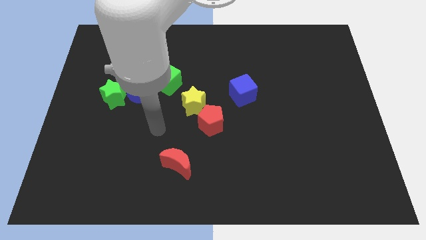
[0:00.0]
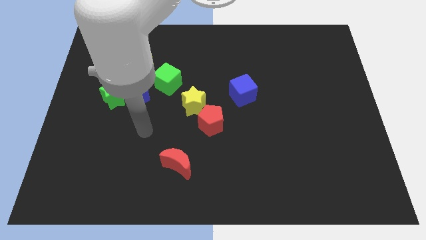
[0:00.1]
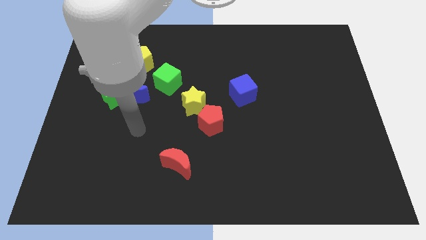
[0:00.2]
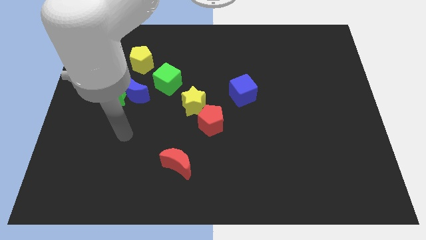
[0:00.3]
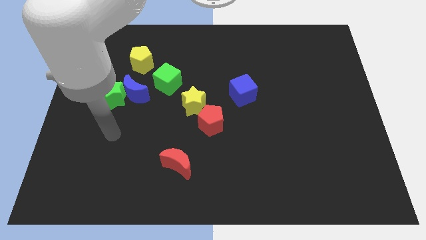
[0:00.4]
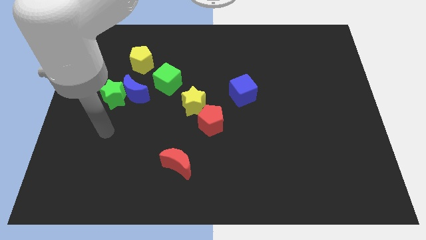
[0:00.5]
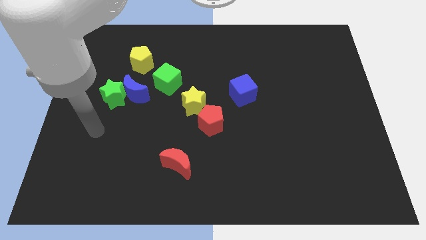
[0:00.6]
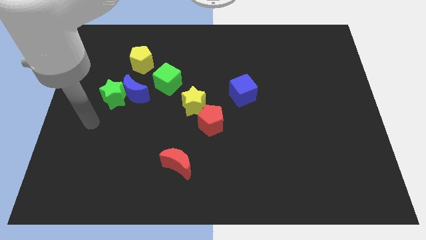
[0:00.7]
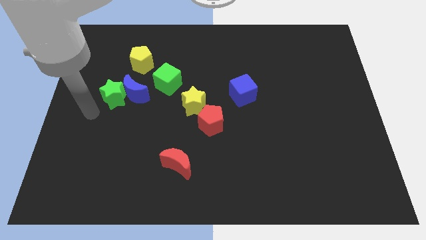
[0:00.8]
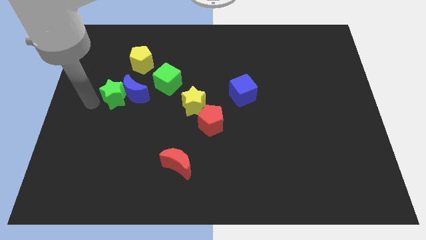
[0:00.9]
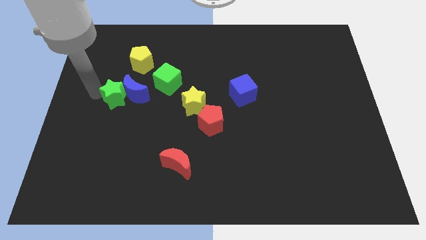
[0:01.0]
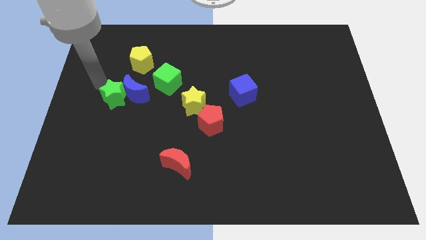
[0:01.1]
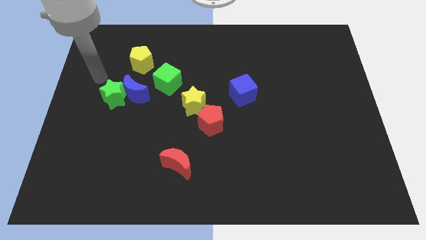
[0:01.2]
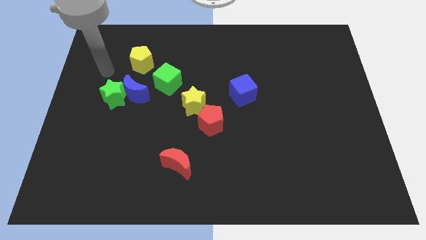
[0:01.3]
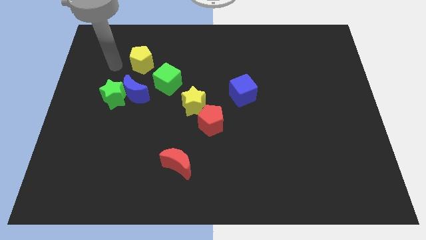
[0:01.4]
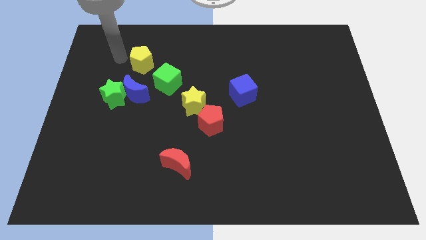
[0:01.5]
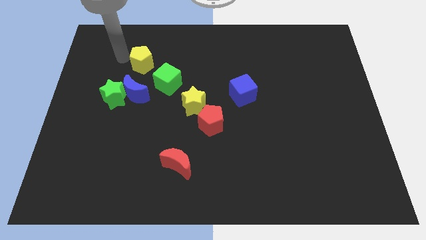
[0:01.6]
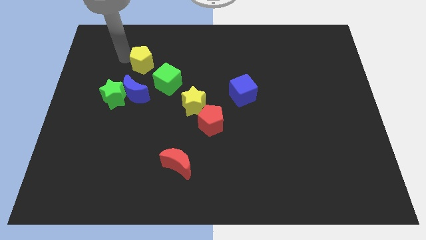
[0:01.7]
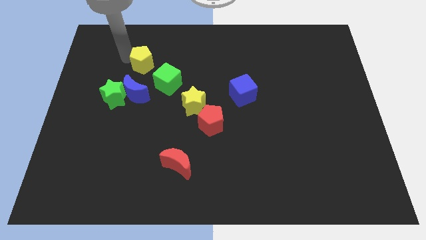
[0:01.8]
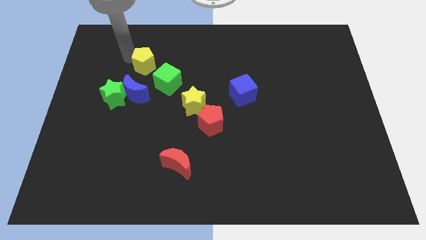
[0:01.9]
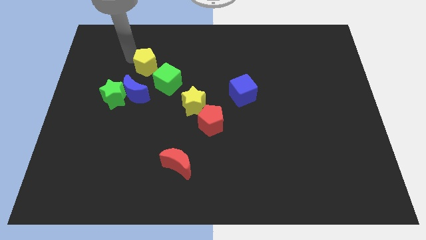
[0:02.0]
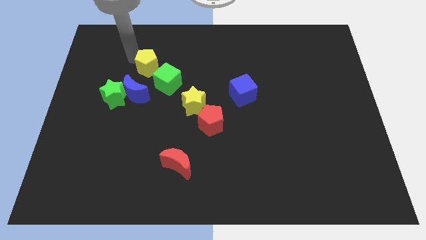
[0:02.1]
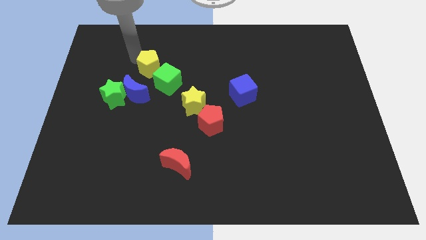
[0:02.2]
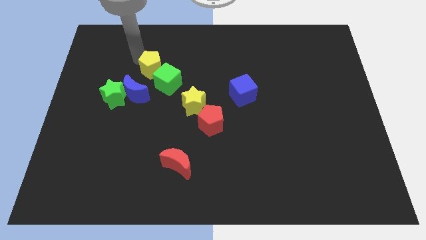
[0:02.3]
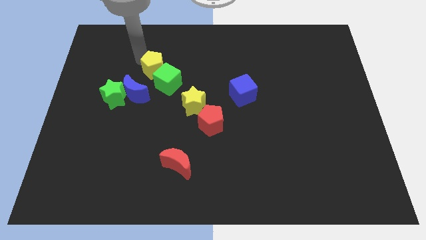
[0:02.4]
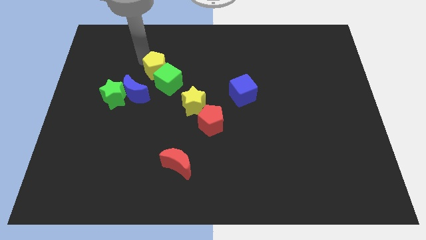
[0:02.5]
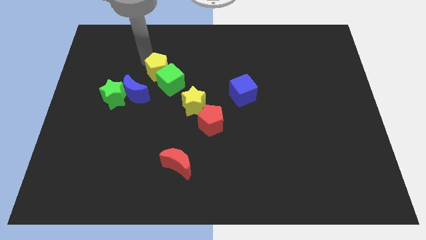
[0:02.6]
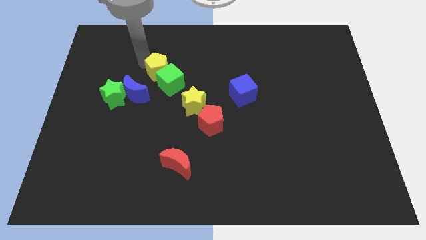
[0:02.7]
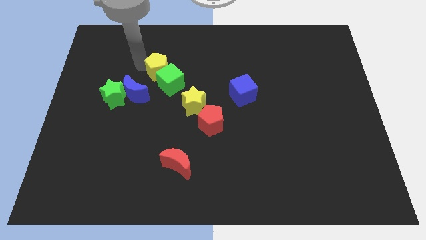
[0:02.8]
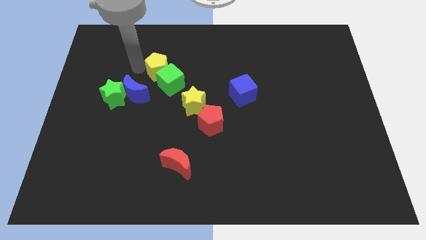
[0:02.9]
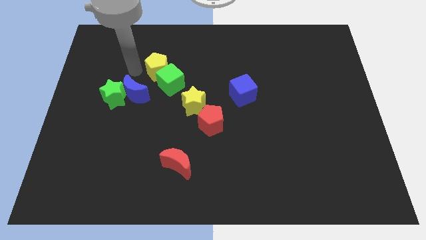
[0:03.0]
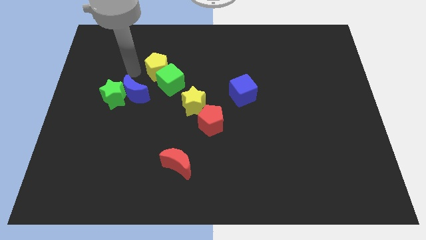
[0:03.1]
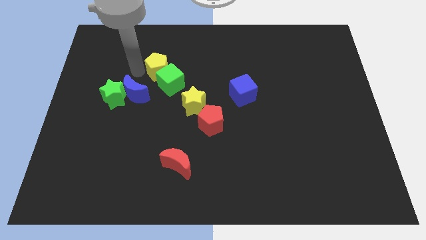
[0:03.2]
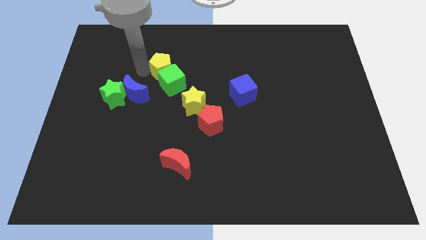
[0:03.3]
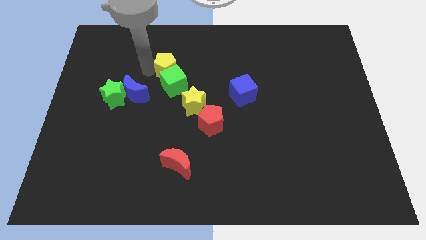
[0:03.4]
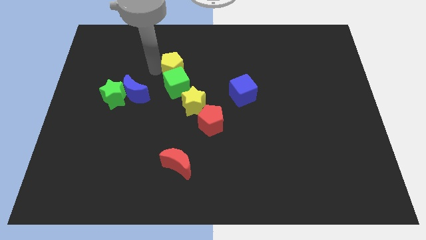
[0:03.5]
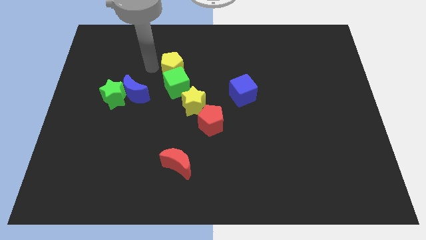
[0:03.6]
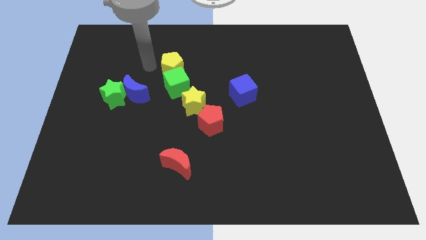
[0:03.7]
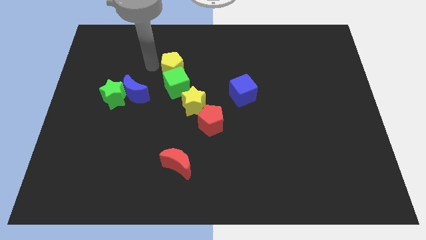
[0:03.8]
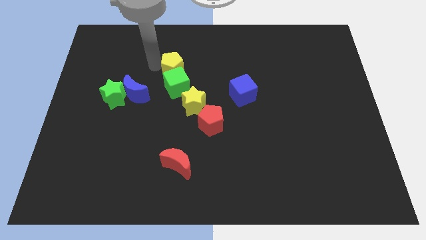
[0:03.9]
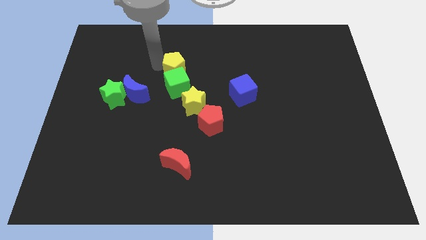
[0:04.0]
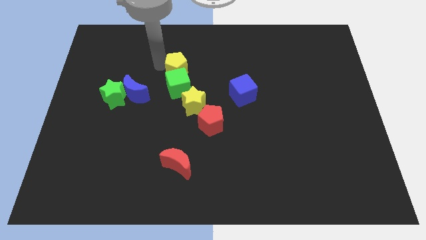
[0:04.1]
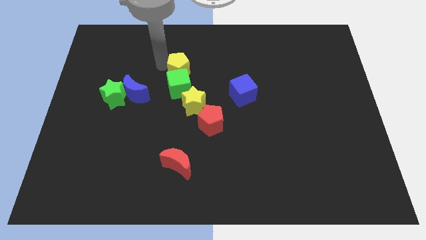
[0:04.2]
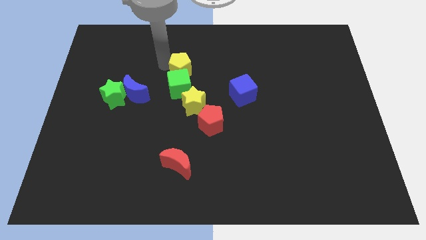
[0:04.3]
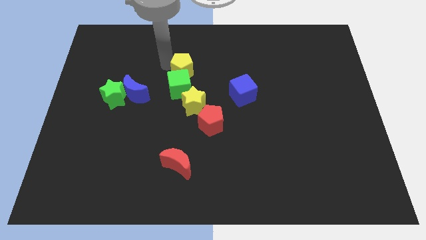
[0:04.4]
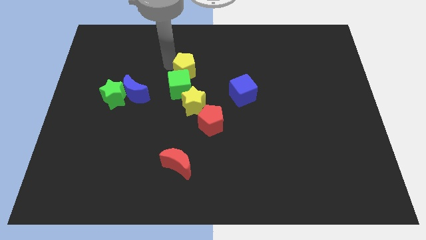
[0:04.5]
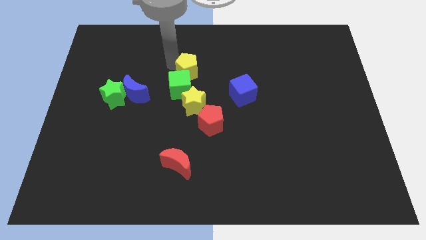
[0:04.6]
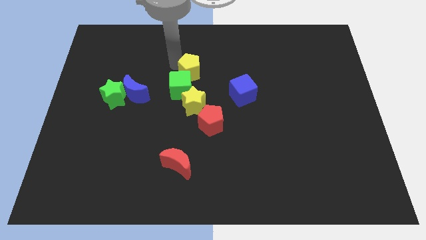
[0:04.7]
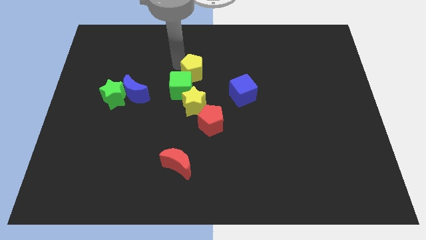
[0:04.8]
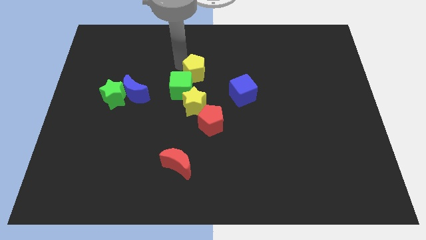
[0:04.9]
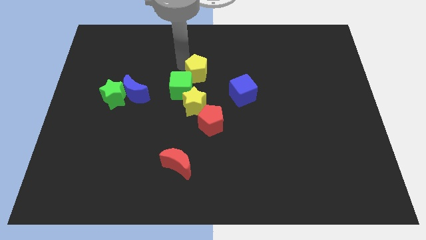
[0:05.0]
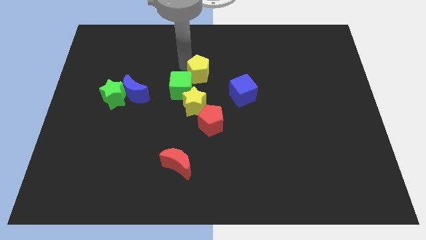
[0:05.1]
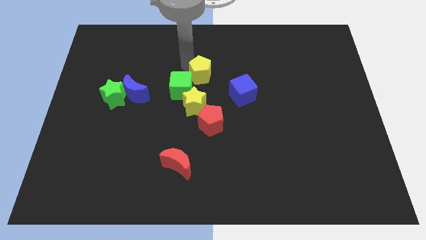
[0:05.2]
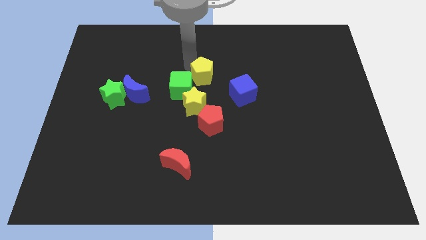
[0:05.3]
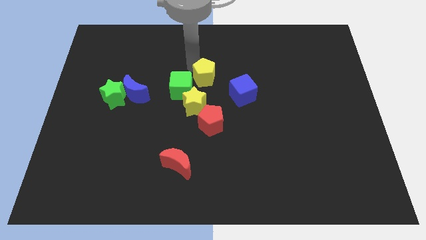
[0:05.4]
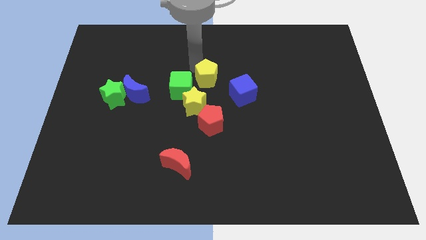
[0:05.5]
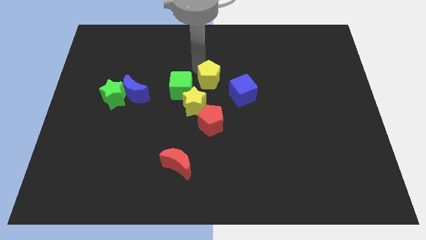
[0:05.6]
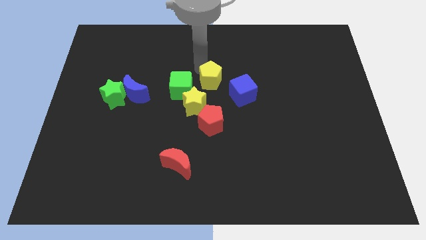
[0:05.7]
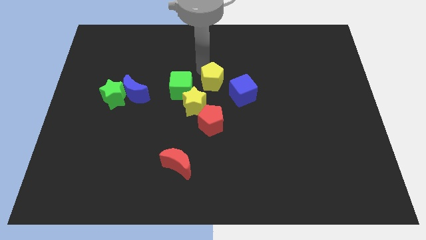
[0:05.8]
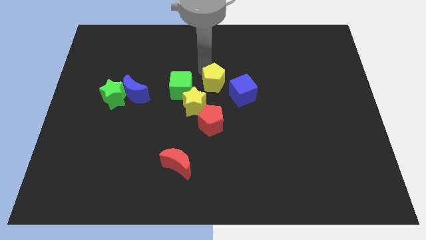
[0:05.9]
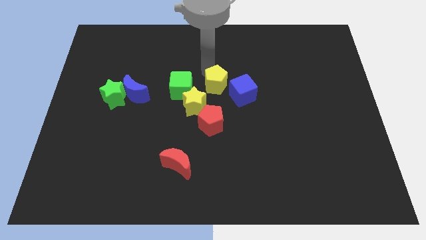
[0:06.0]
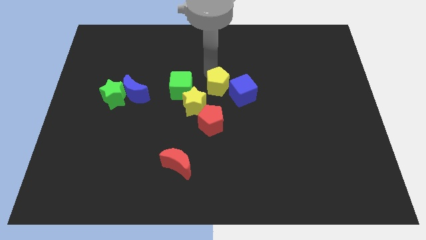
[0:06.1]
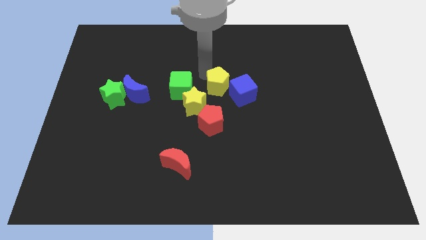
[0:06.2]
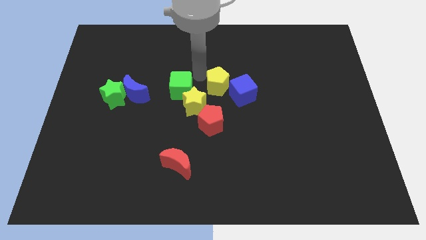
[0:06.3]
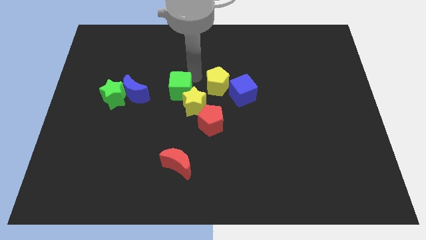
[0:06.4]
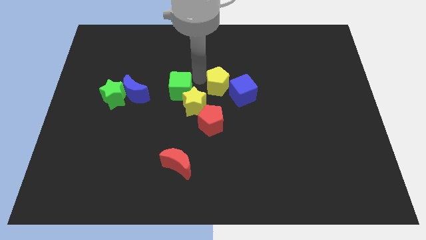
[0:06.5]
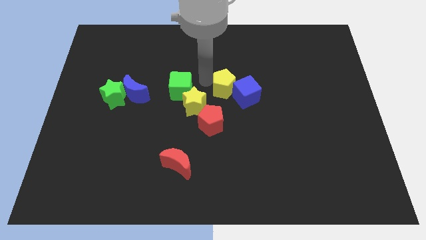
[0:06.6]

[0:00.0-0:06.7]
slide the yellow pentagon to the blue cube
